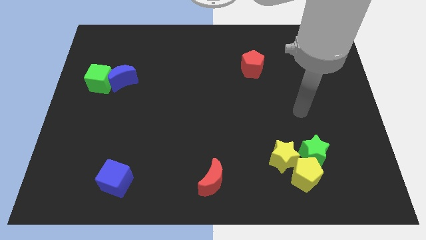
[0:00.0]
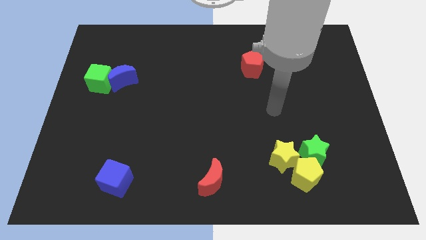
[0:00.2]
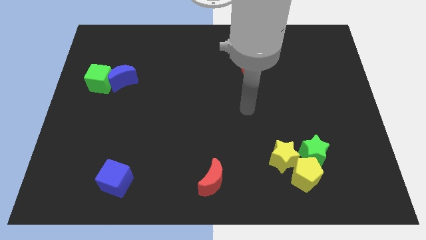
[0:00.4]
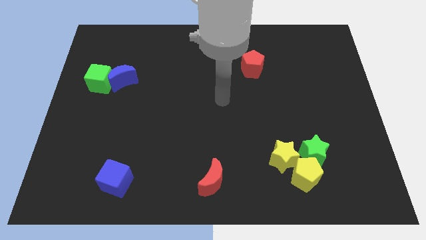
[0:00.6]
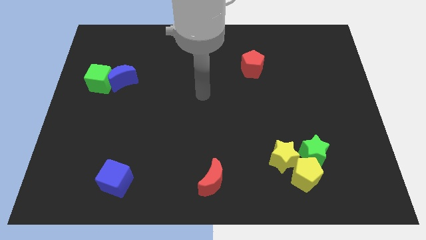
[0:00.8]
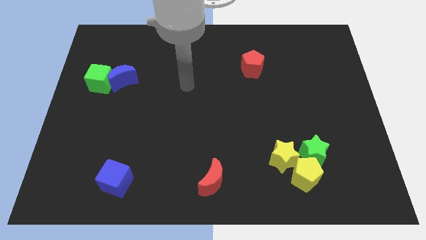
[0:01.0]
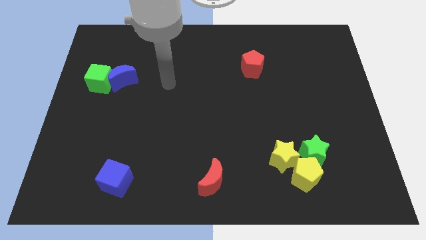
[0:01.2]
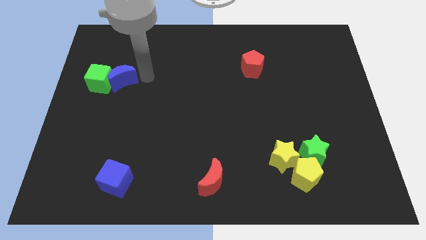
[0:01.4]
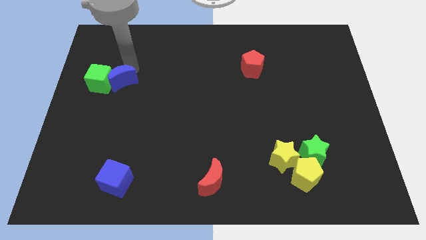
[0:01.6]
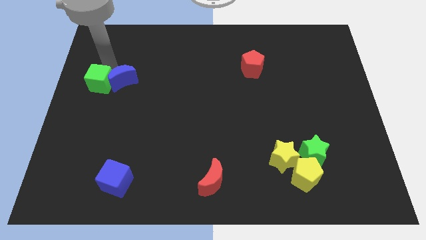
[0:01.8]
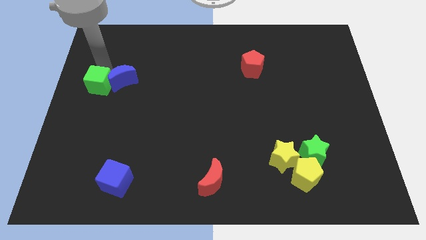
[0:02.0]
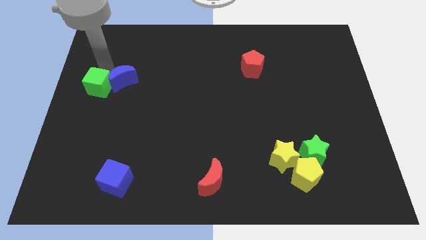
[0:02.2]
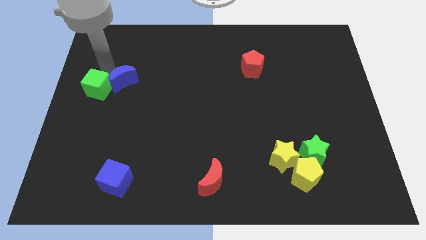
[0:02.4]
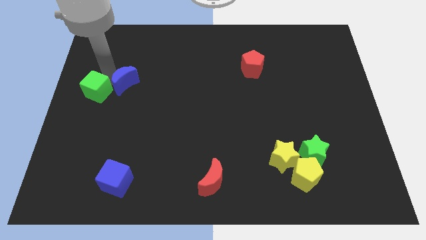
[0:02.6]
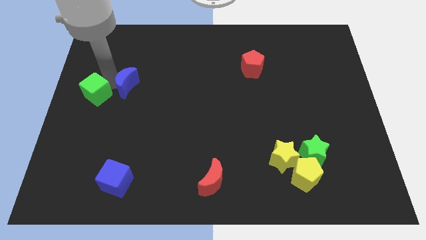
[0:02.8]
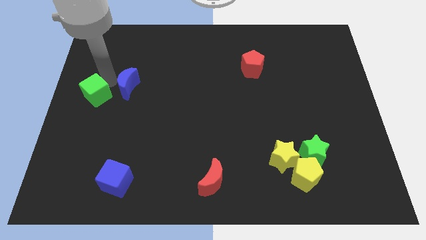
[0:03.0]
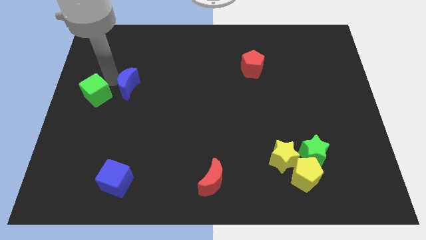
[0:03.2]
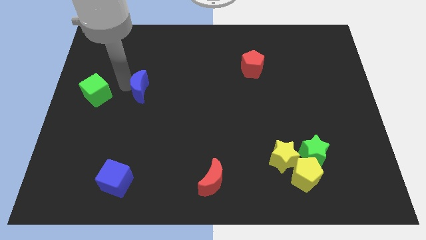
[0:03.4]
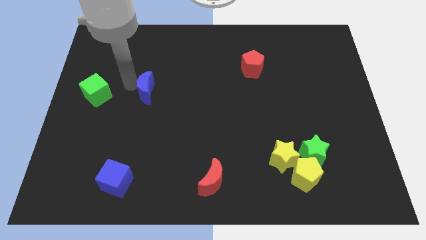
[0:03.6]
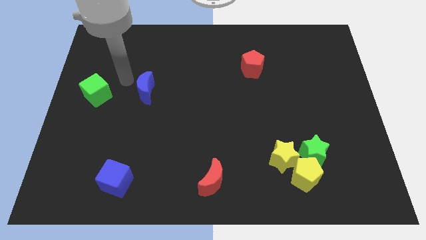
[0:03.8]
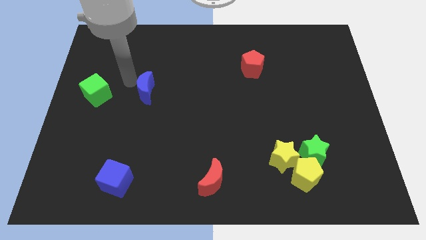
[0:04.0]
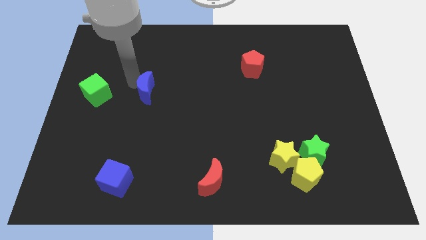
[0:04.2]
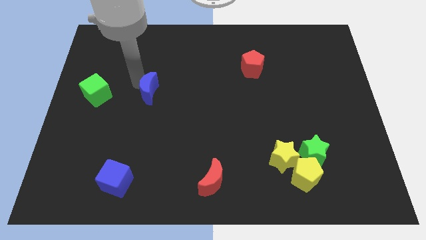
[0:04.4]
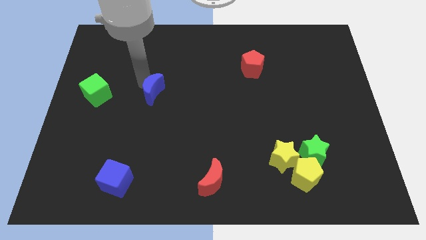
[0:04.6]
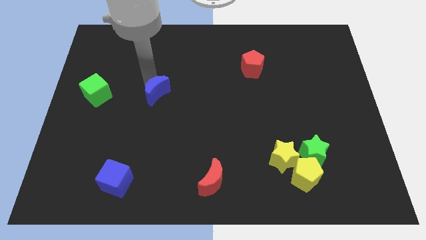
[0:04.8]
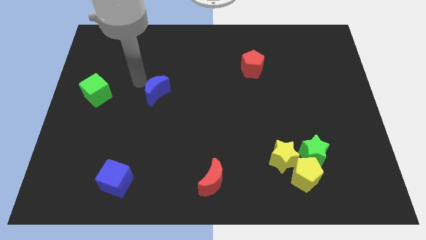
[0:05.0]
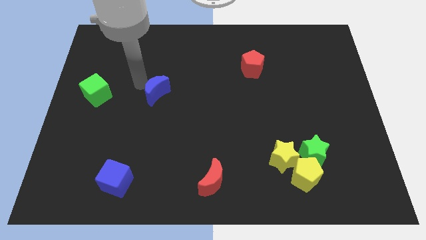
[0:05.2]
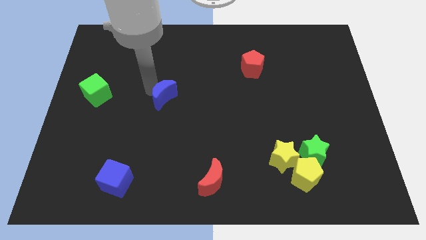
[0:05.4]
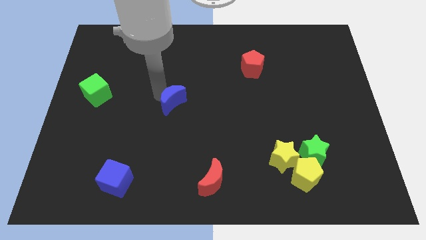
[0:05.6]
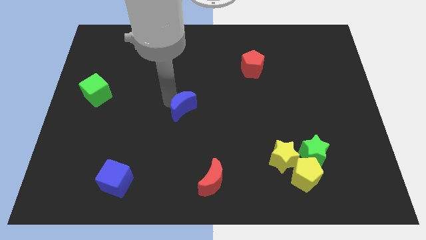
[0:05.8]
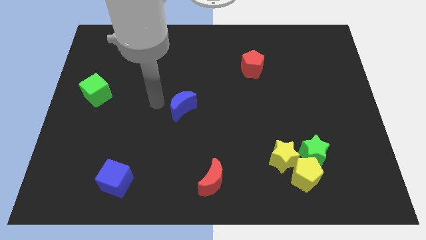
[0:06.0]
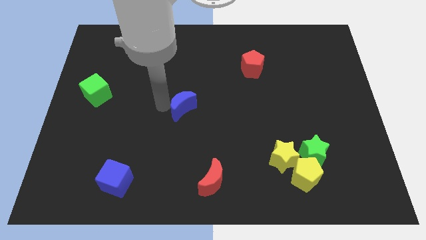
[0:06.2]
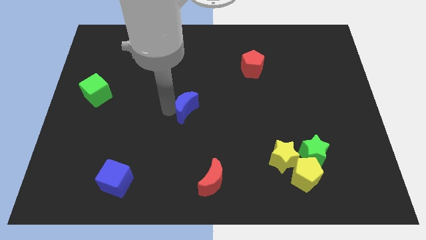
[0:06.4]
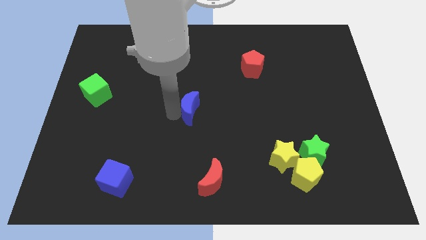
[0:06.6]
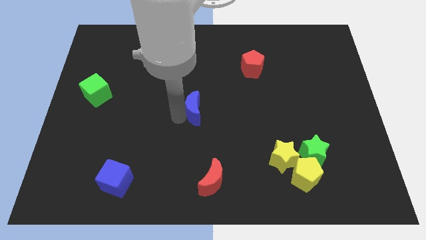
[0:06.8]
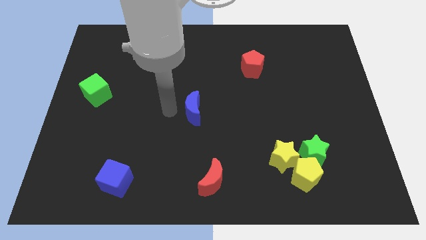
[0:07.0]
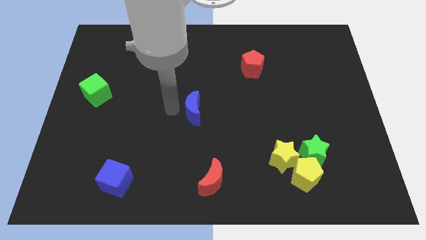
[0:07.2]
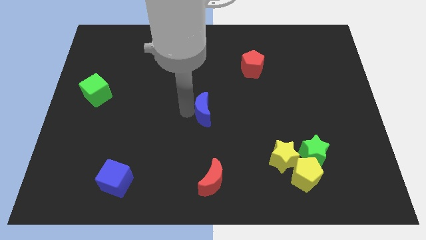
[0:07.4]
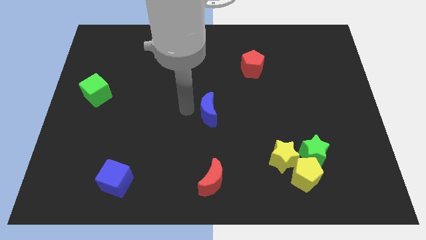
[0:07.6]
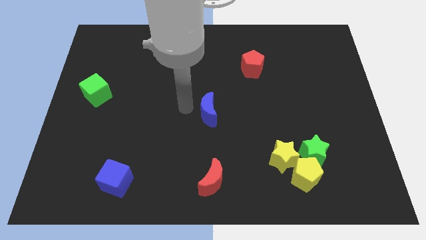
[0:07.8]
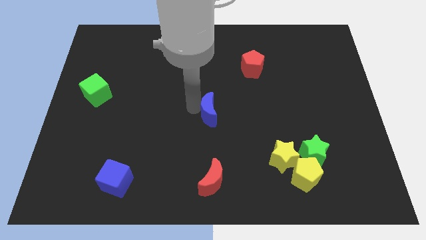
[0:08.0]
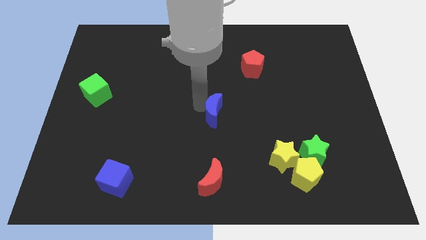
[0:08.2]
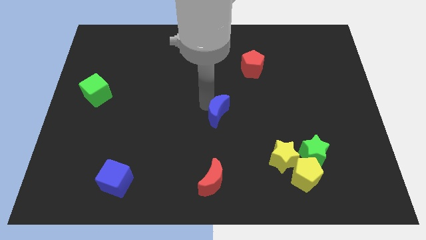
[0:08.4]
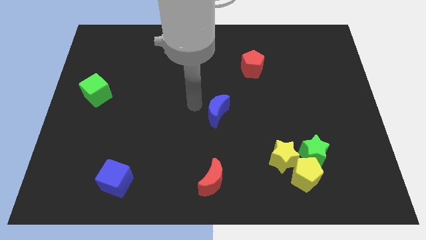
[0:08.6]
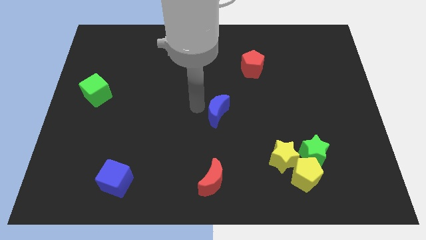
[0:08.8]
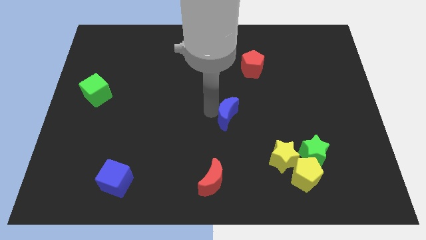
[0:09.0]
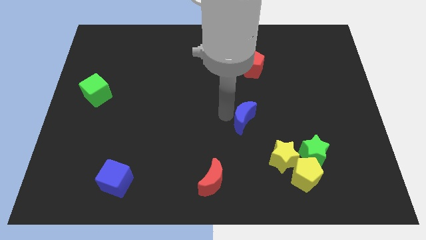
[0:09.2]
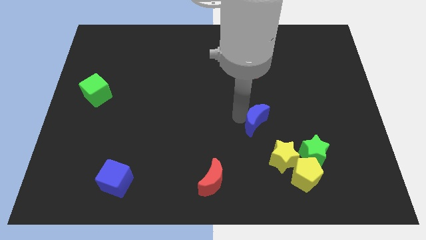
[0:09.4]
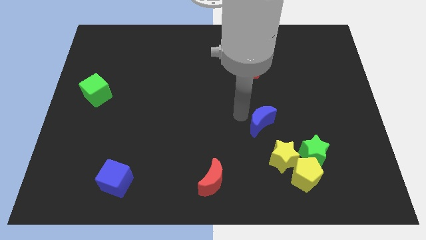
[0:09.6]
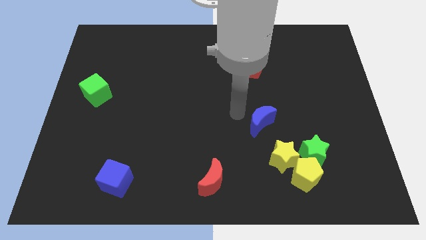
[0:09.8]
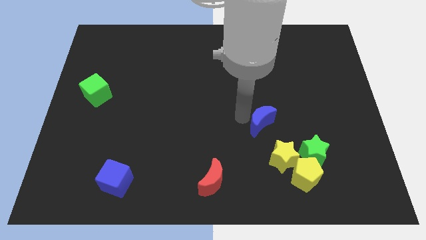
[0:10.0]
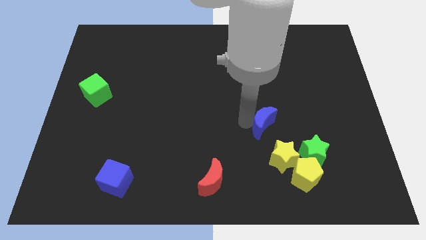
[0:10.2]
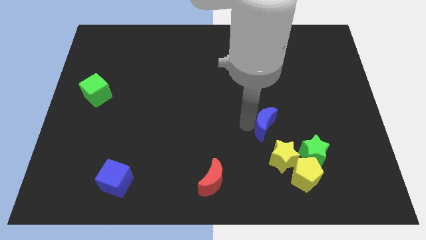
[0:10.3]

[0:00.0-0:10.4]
push the blue moon to the top left of the green star

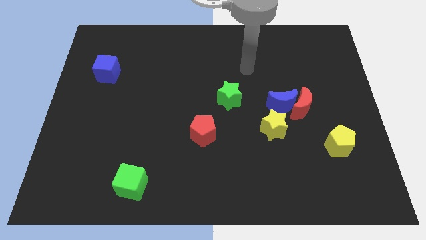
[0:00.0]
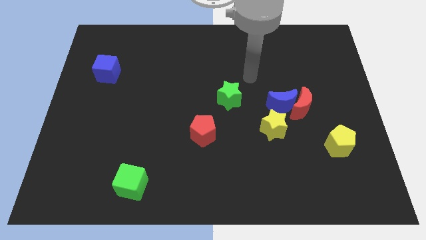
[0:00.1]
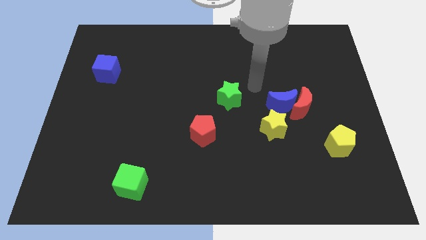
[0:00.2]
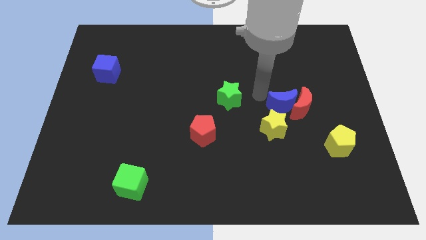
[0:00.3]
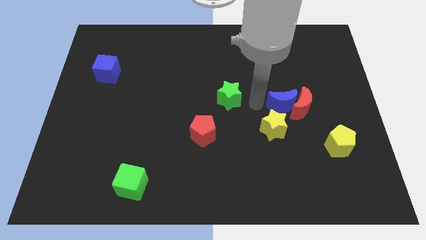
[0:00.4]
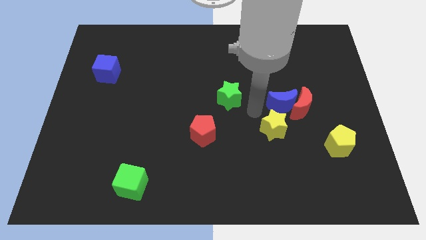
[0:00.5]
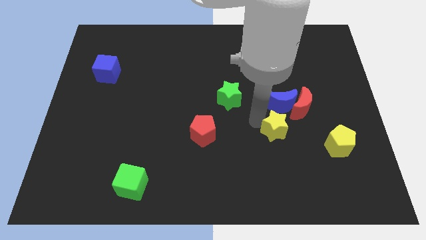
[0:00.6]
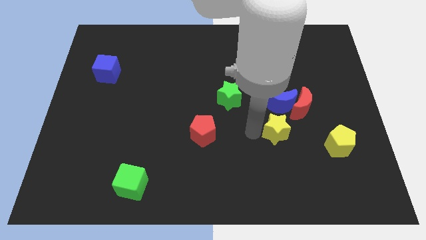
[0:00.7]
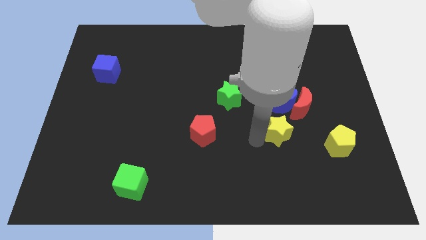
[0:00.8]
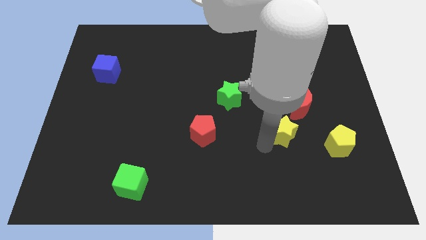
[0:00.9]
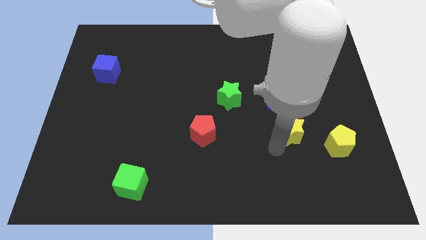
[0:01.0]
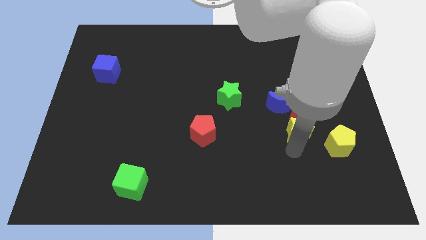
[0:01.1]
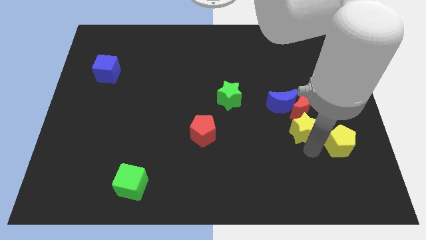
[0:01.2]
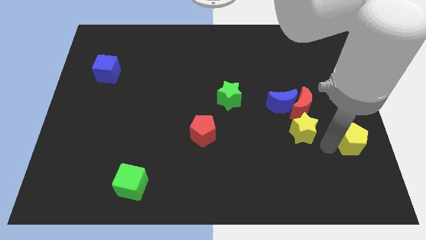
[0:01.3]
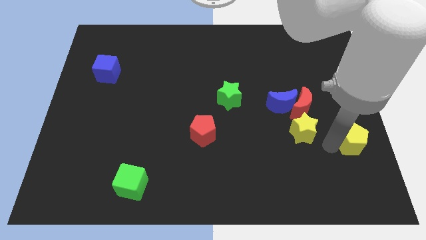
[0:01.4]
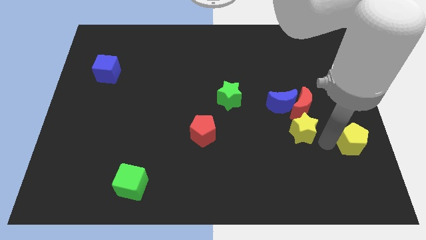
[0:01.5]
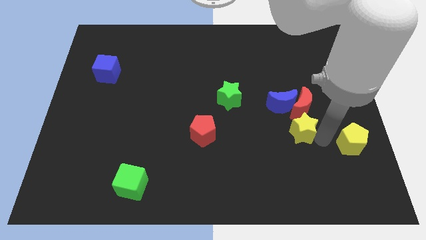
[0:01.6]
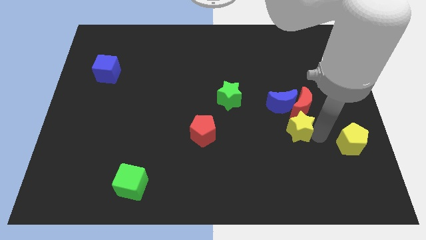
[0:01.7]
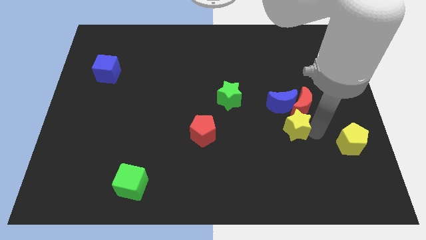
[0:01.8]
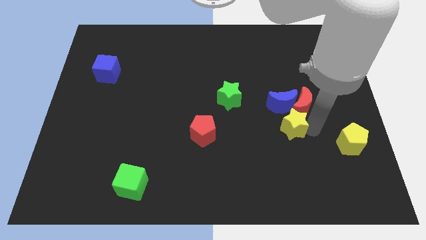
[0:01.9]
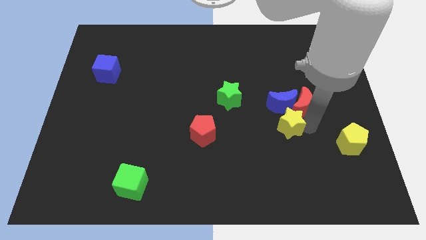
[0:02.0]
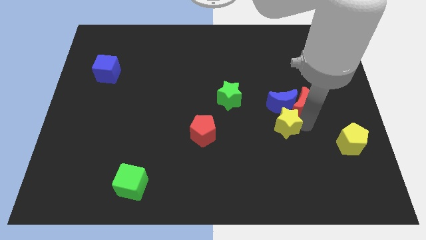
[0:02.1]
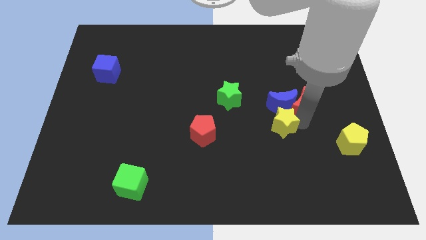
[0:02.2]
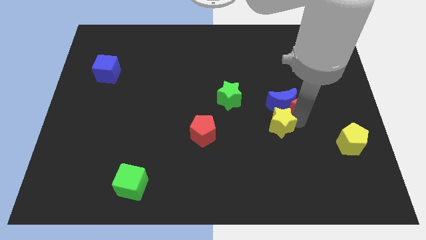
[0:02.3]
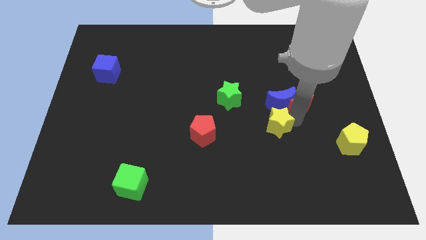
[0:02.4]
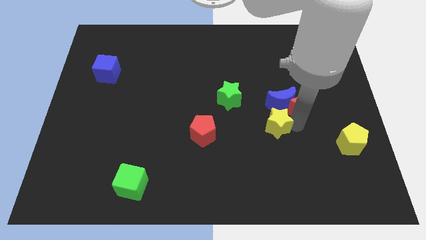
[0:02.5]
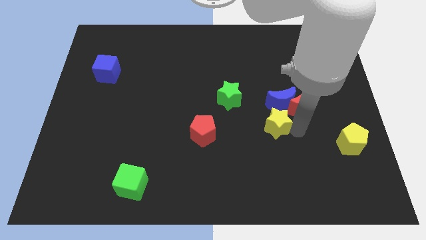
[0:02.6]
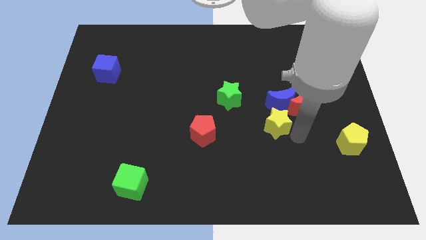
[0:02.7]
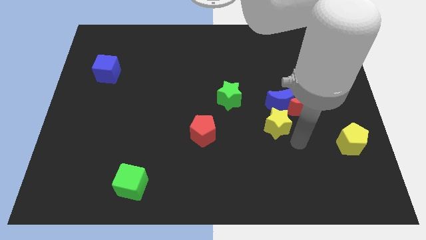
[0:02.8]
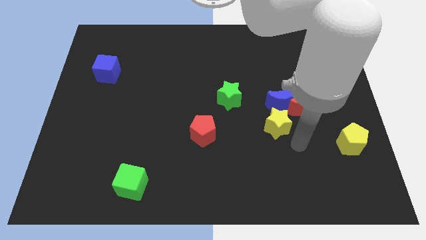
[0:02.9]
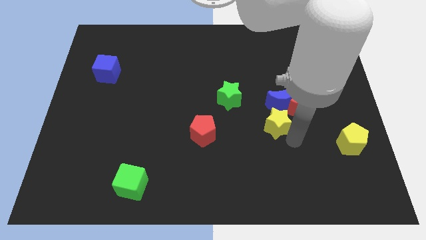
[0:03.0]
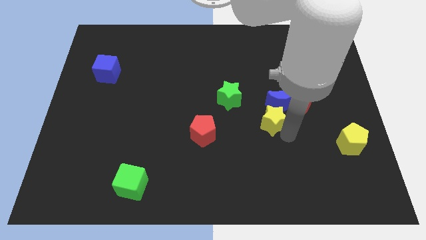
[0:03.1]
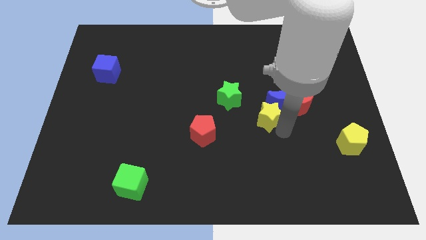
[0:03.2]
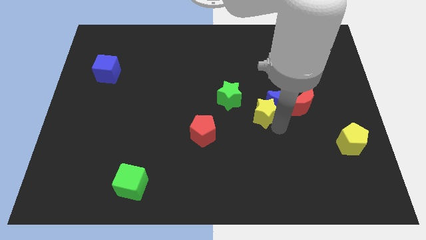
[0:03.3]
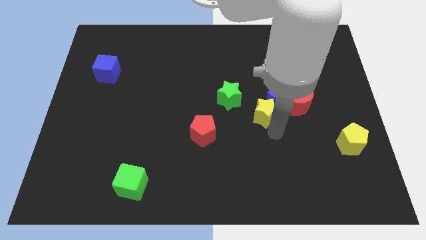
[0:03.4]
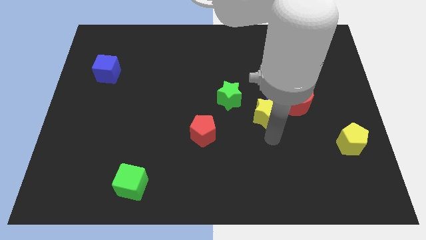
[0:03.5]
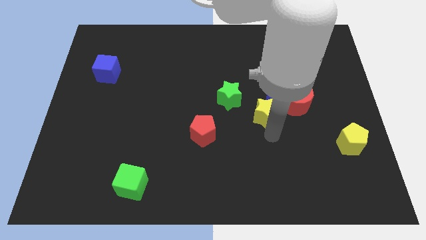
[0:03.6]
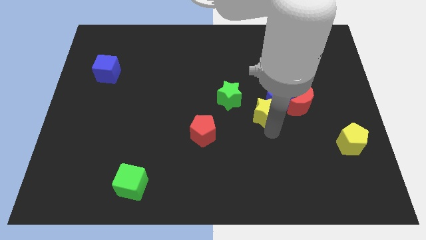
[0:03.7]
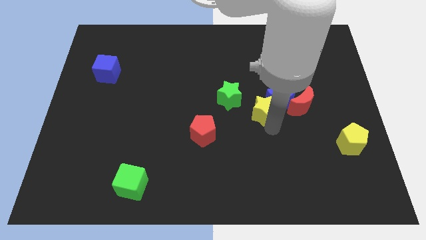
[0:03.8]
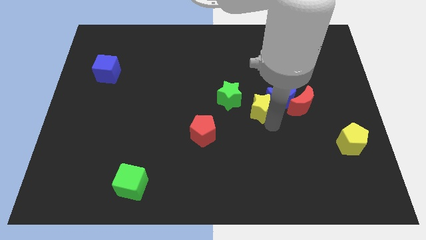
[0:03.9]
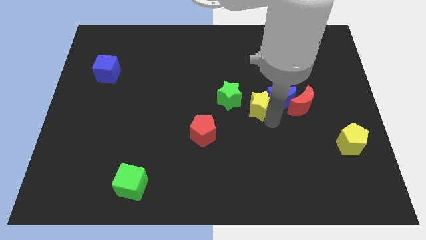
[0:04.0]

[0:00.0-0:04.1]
slide the yellow star to the top left side of the blue moon
